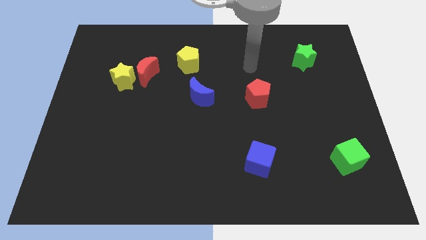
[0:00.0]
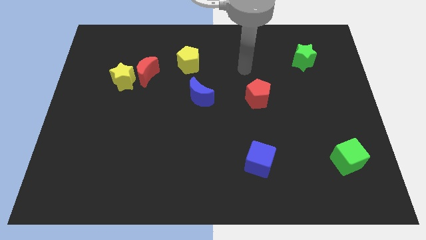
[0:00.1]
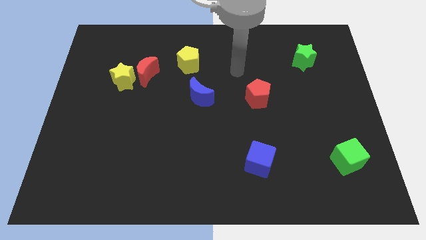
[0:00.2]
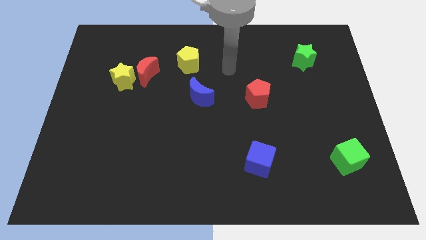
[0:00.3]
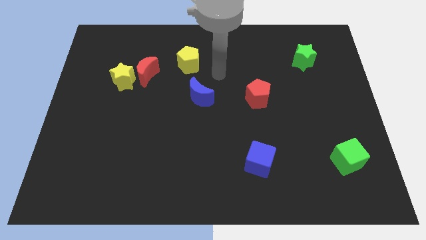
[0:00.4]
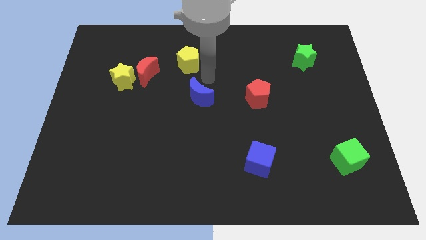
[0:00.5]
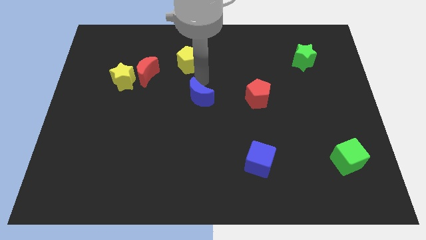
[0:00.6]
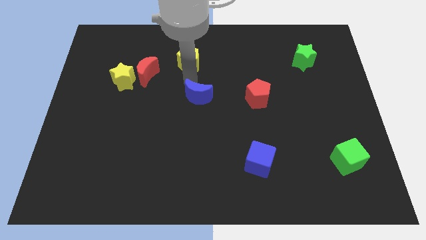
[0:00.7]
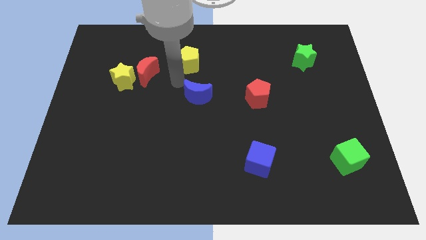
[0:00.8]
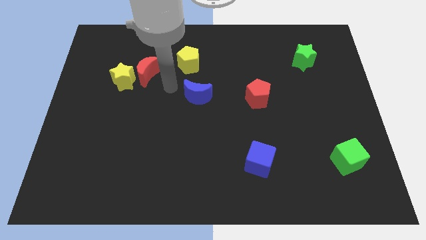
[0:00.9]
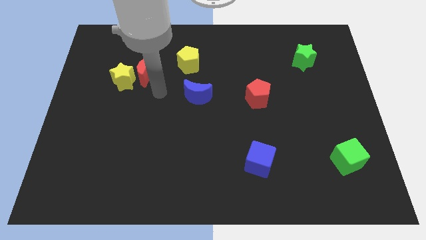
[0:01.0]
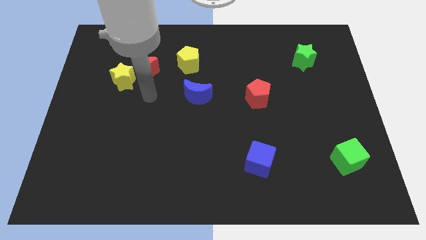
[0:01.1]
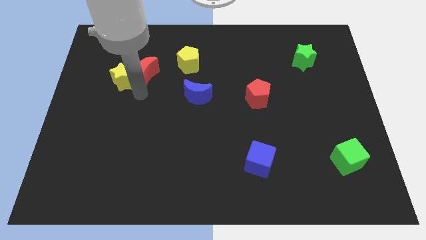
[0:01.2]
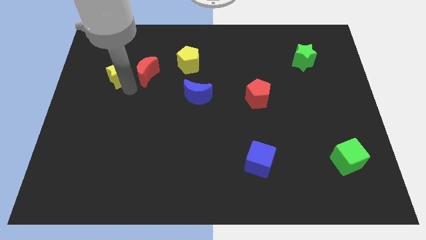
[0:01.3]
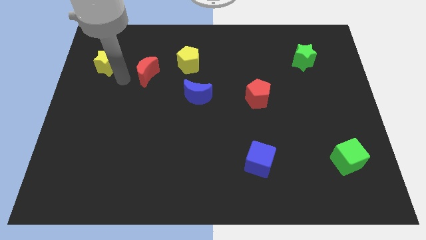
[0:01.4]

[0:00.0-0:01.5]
separate the red moon from the yellow star

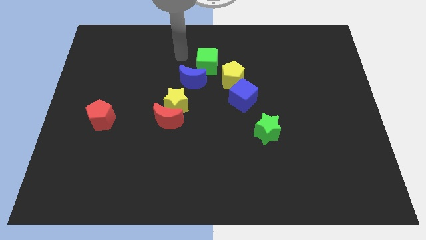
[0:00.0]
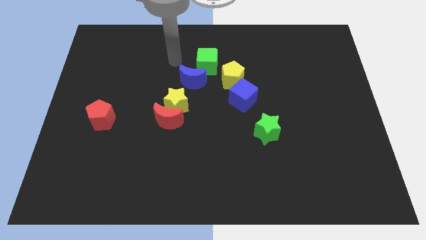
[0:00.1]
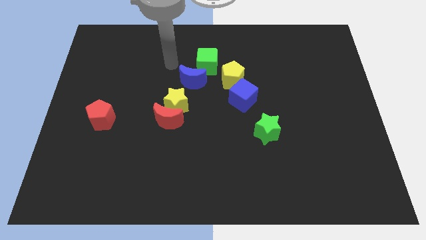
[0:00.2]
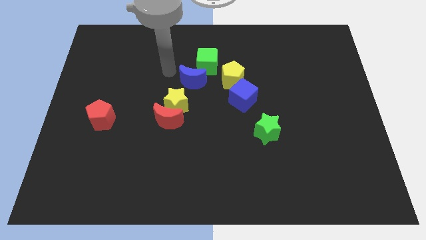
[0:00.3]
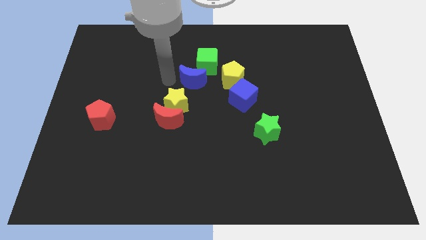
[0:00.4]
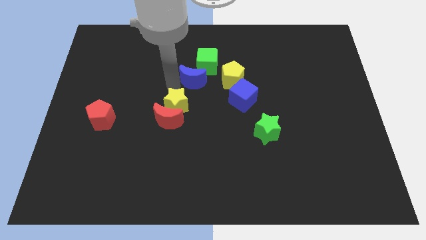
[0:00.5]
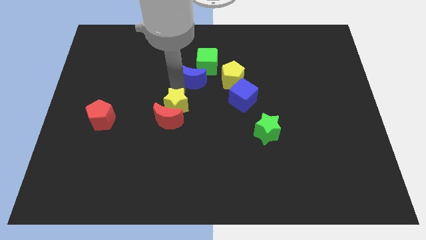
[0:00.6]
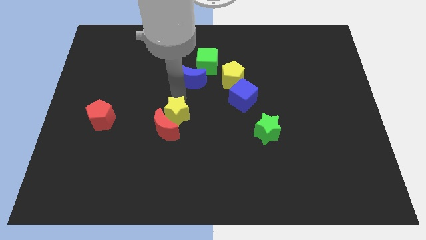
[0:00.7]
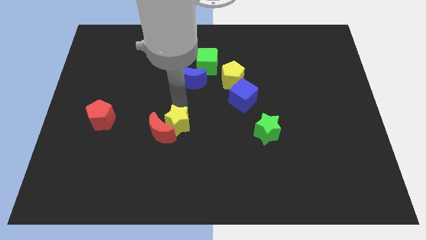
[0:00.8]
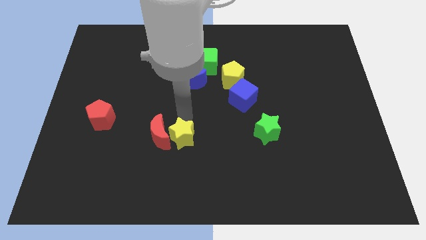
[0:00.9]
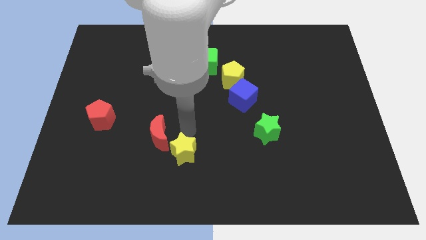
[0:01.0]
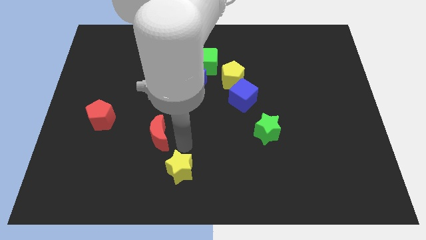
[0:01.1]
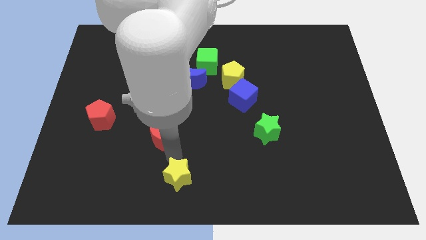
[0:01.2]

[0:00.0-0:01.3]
move the red moon away from the yellow star

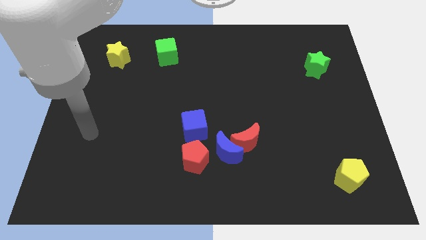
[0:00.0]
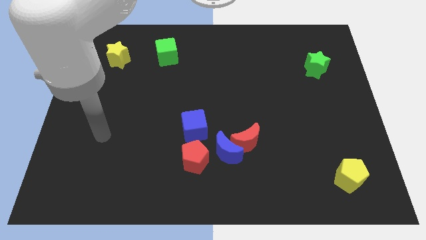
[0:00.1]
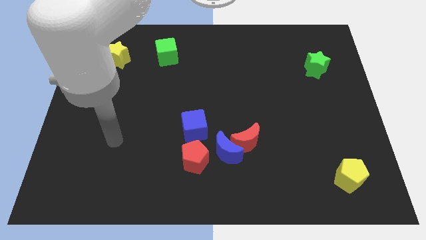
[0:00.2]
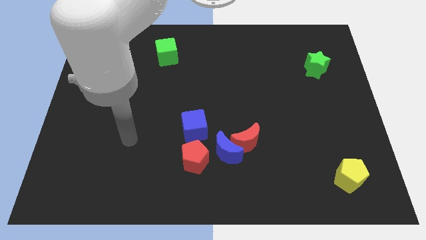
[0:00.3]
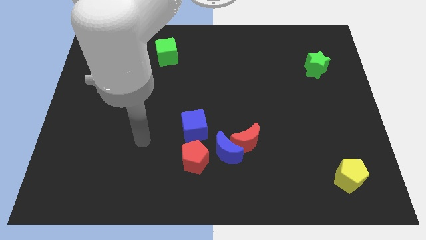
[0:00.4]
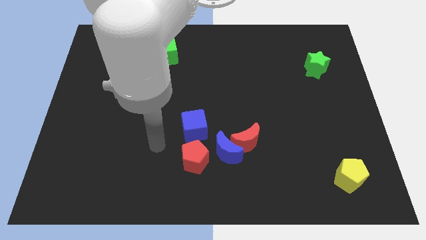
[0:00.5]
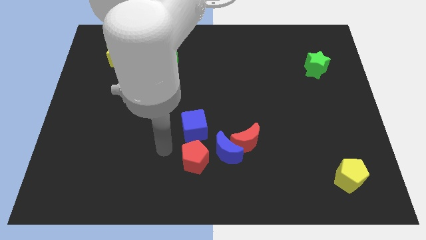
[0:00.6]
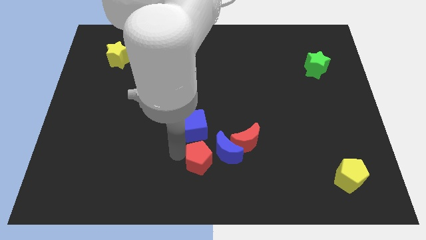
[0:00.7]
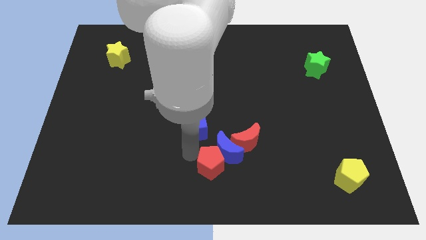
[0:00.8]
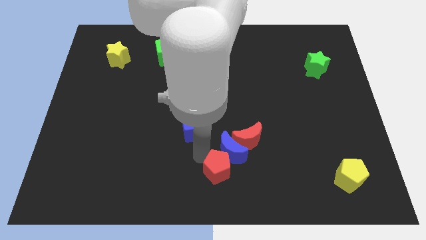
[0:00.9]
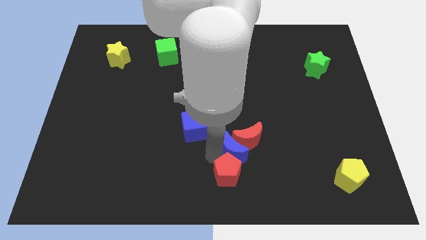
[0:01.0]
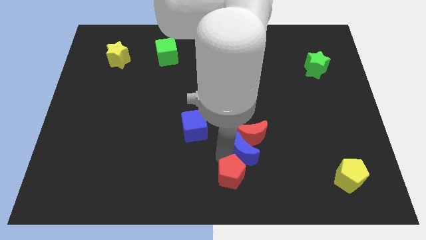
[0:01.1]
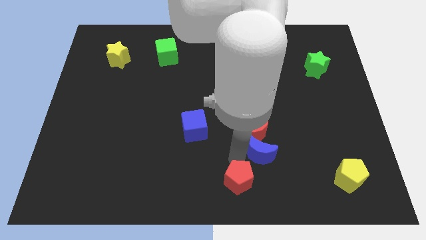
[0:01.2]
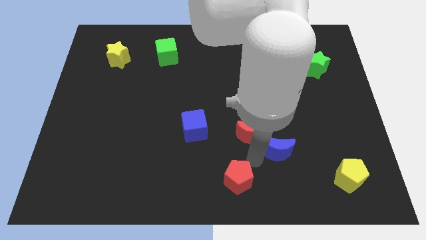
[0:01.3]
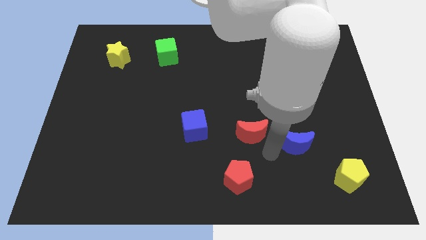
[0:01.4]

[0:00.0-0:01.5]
pull the red moon apart from the blue moon

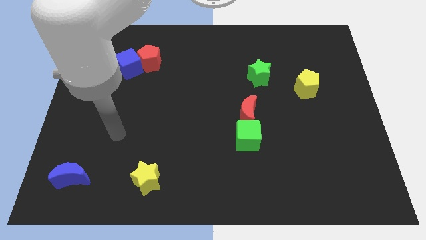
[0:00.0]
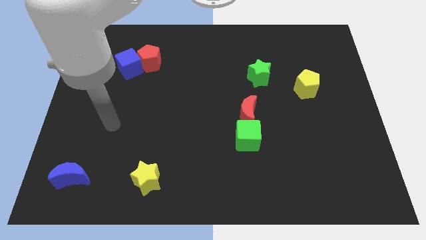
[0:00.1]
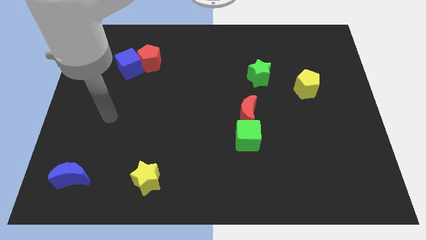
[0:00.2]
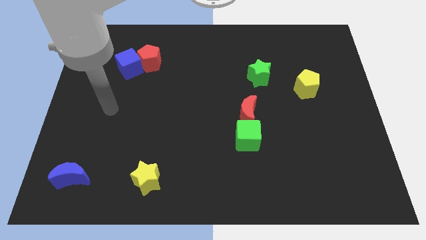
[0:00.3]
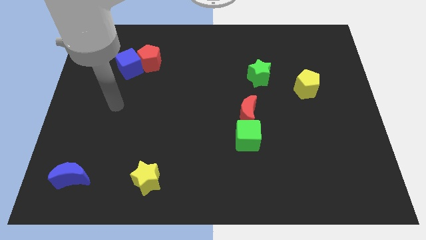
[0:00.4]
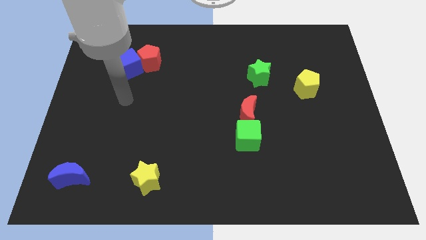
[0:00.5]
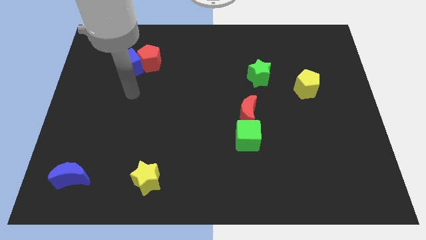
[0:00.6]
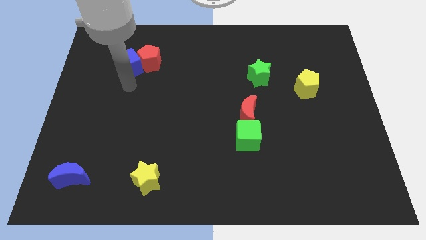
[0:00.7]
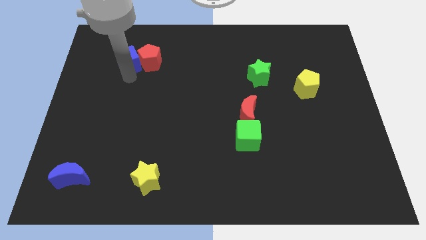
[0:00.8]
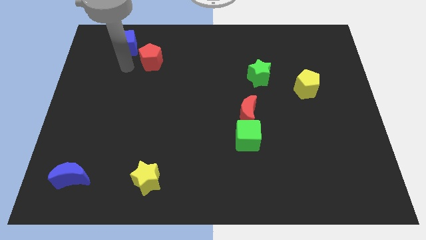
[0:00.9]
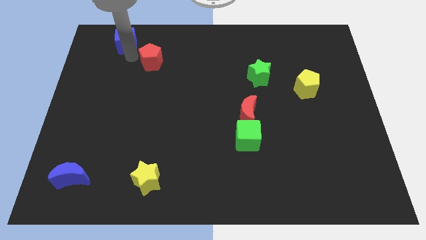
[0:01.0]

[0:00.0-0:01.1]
pull the red pentagon apart from the blue cube

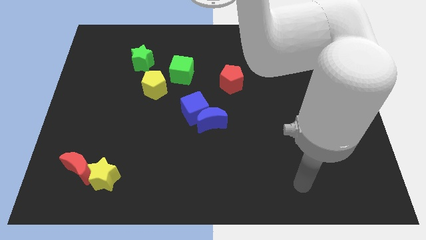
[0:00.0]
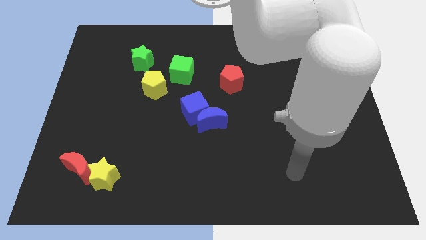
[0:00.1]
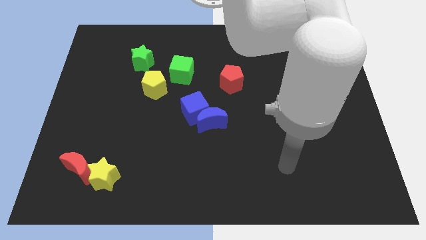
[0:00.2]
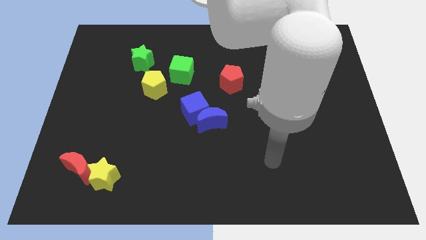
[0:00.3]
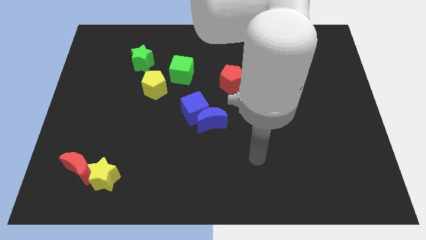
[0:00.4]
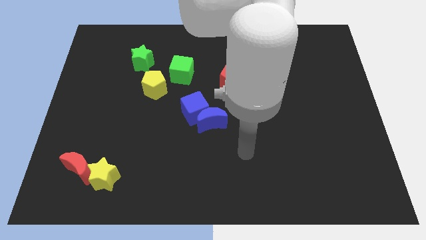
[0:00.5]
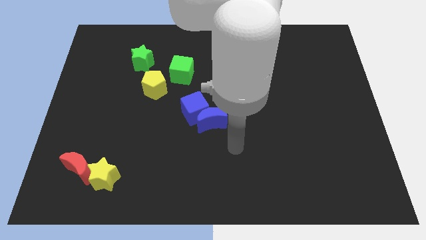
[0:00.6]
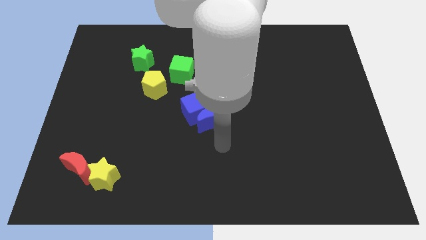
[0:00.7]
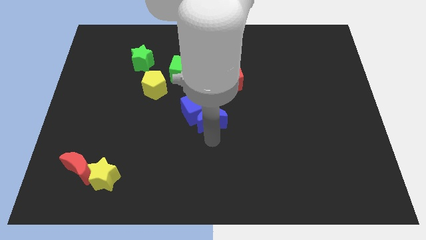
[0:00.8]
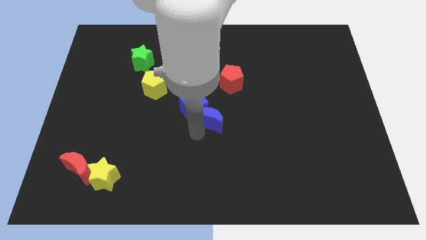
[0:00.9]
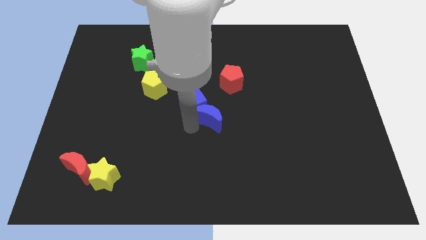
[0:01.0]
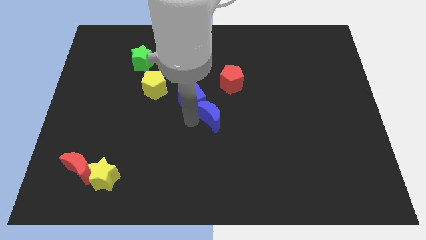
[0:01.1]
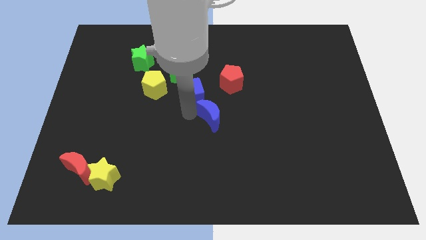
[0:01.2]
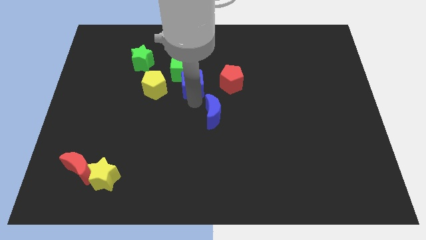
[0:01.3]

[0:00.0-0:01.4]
move the blue moon away from the blue cube

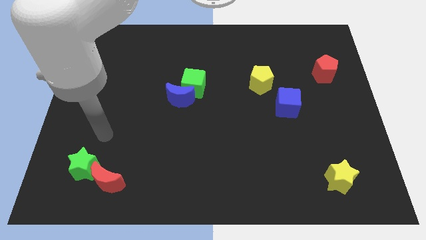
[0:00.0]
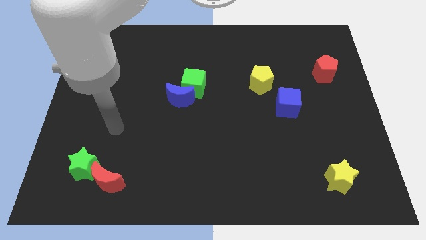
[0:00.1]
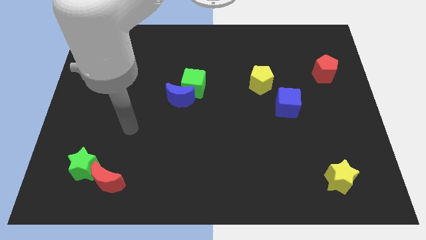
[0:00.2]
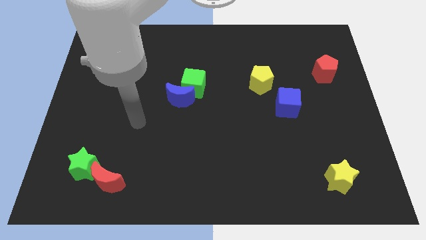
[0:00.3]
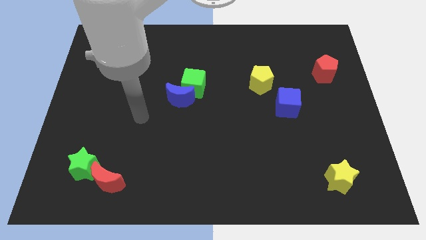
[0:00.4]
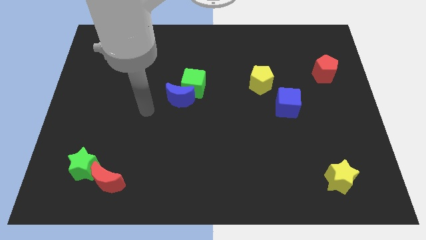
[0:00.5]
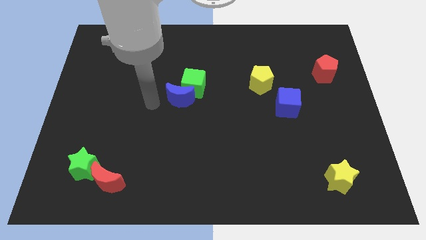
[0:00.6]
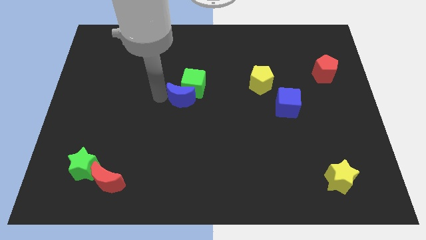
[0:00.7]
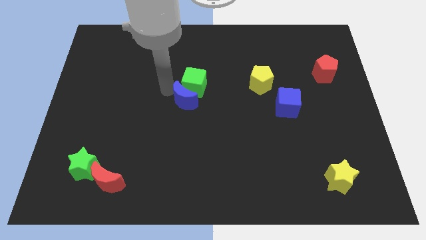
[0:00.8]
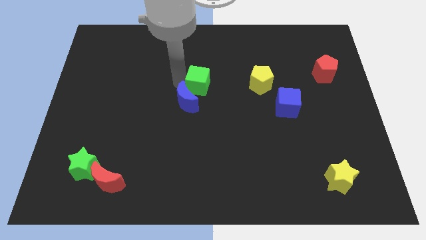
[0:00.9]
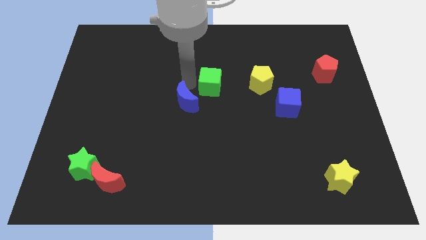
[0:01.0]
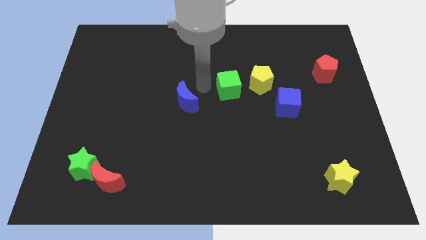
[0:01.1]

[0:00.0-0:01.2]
move the blue moon away from the green cube

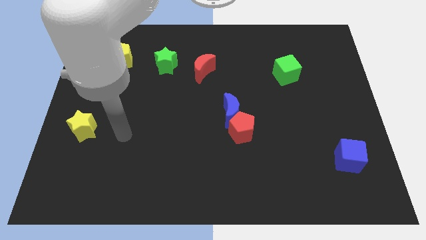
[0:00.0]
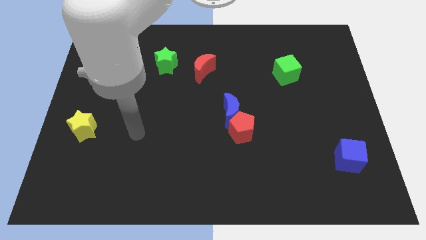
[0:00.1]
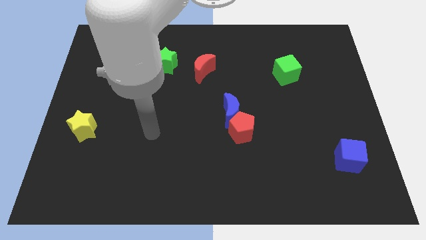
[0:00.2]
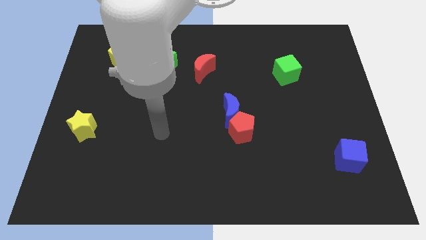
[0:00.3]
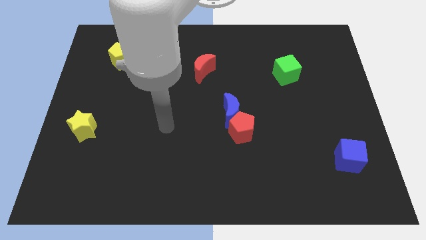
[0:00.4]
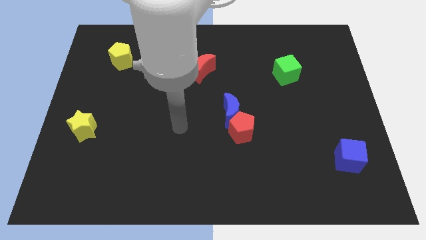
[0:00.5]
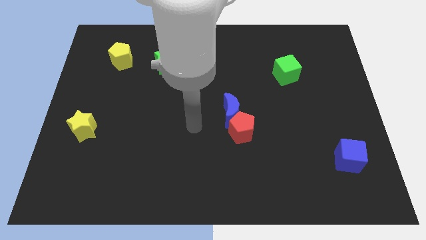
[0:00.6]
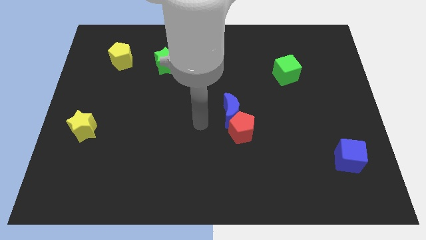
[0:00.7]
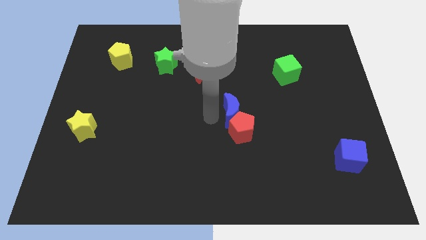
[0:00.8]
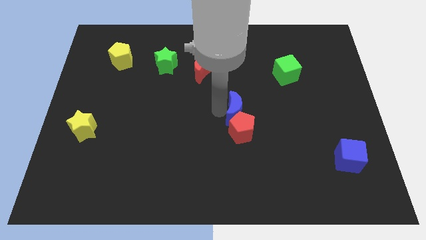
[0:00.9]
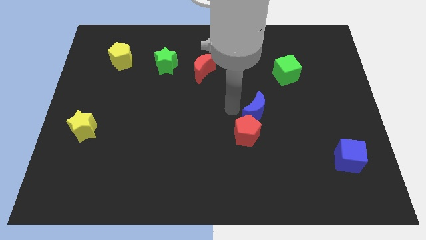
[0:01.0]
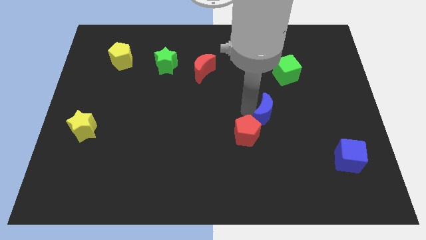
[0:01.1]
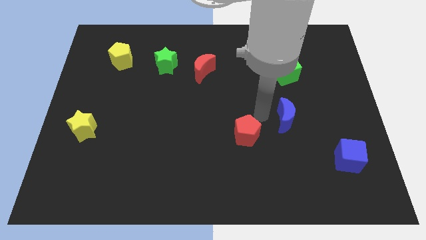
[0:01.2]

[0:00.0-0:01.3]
separate the red pentagon from the blue moon
